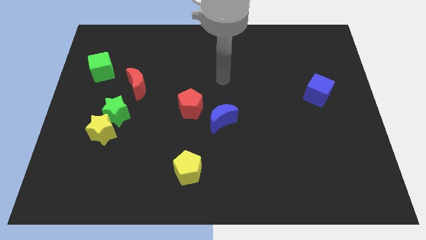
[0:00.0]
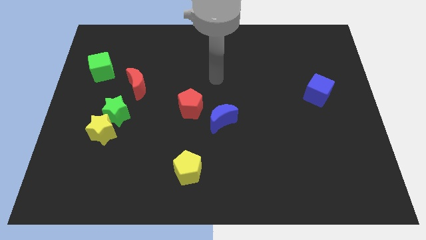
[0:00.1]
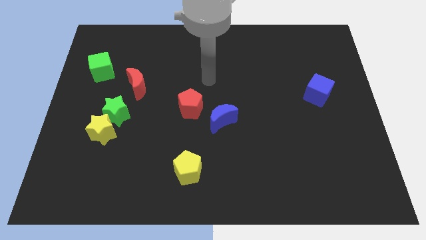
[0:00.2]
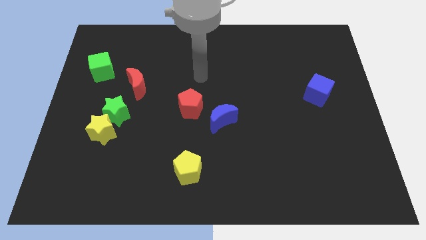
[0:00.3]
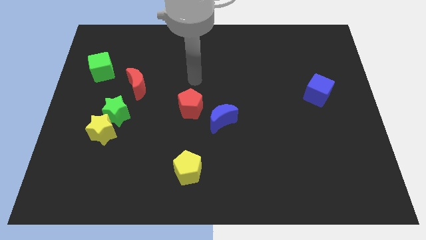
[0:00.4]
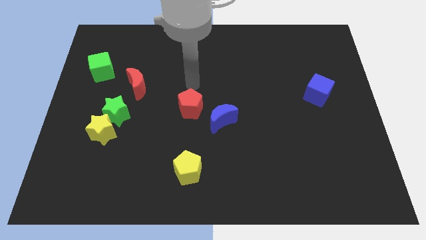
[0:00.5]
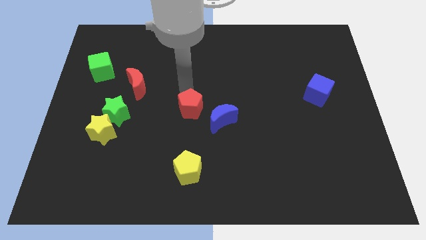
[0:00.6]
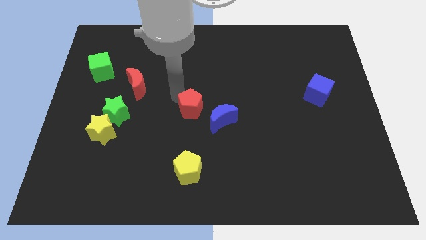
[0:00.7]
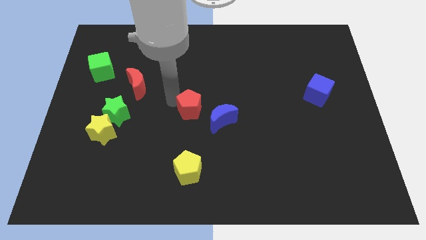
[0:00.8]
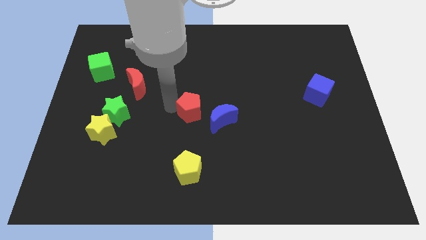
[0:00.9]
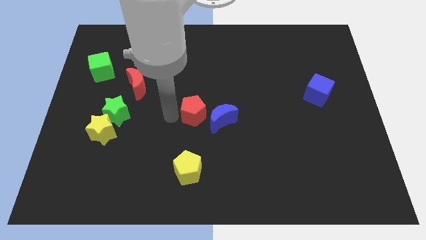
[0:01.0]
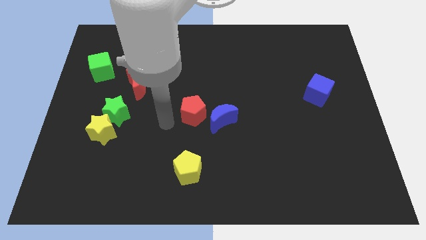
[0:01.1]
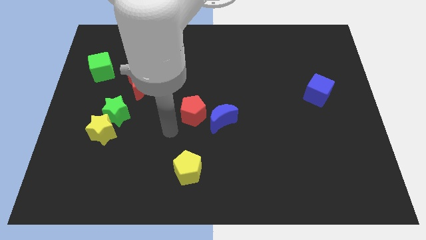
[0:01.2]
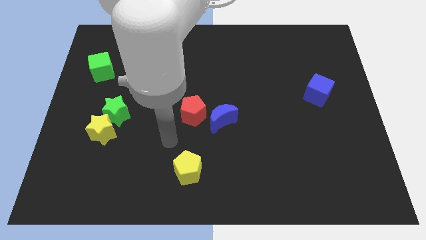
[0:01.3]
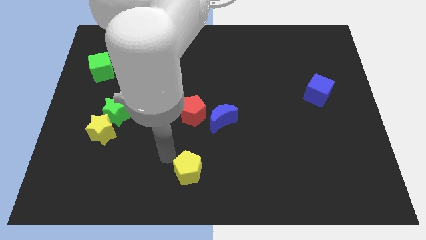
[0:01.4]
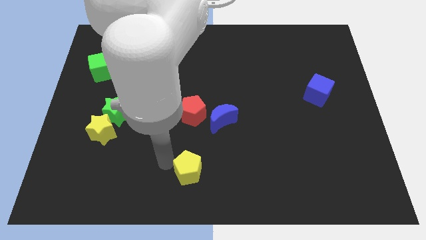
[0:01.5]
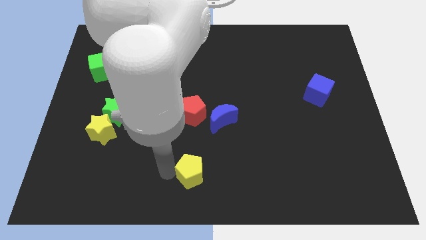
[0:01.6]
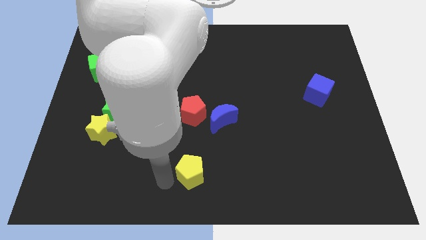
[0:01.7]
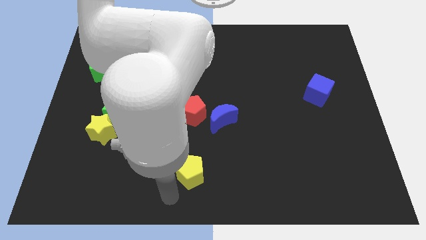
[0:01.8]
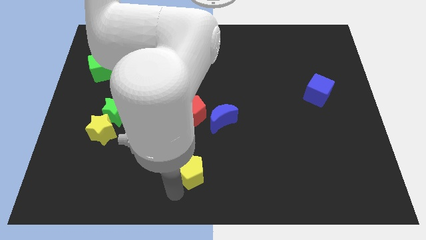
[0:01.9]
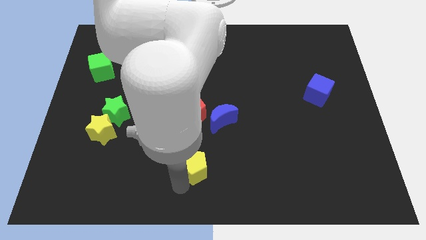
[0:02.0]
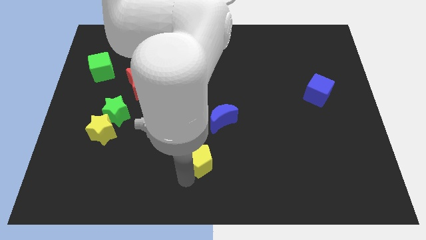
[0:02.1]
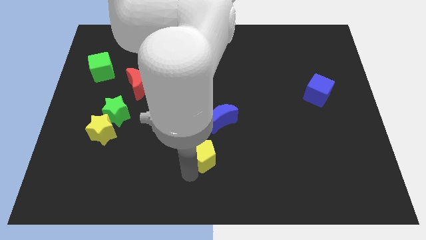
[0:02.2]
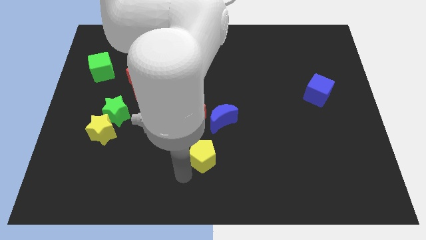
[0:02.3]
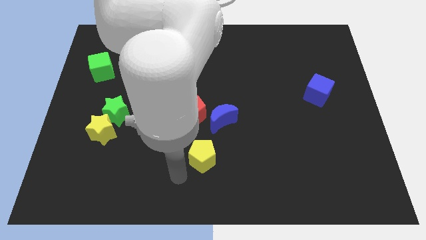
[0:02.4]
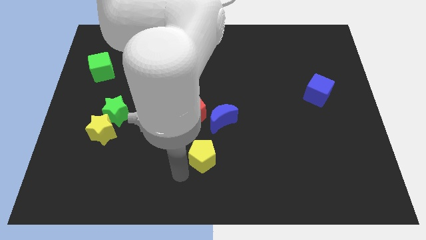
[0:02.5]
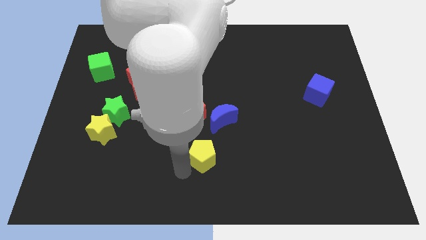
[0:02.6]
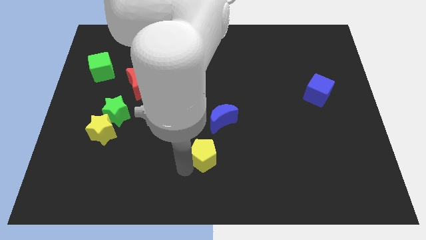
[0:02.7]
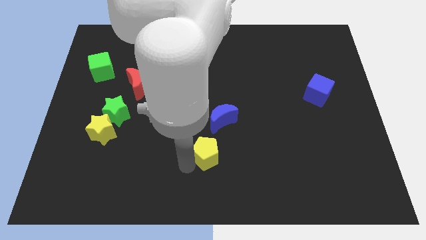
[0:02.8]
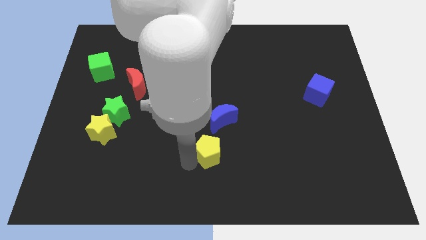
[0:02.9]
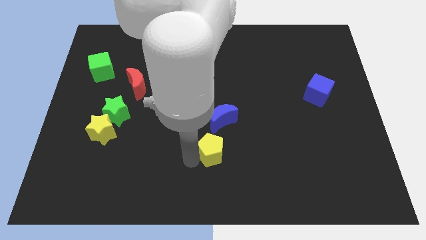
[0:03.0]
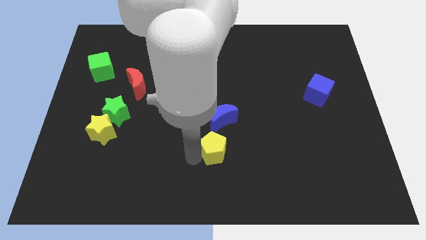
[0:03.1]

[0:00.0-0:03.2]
slightly move the yellow pentagon upwards and right diagonally

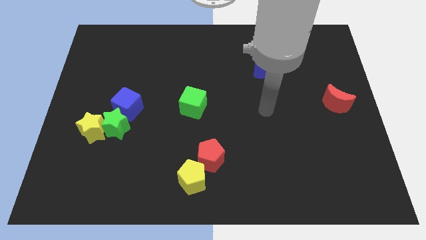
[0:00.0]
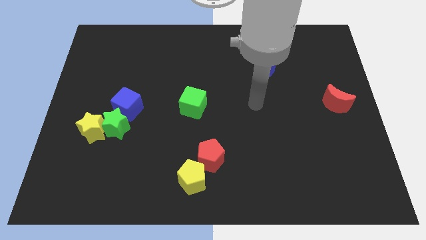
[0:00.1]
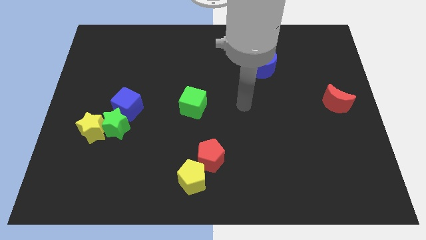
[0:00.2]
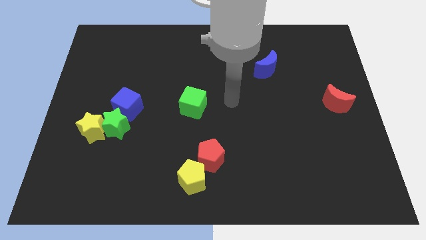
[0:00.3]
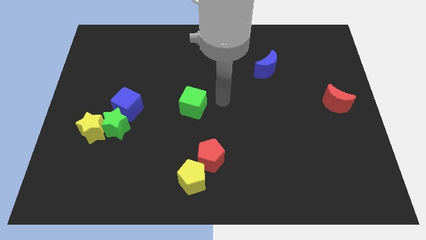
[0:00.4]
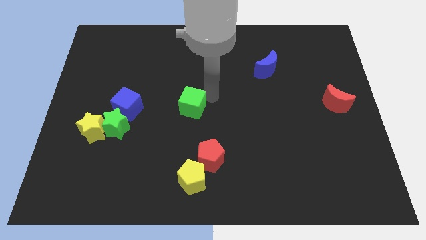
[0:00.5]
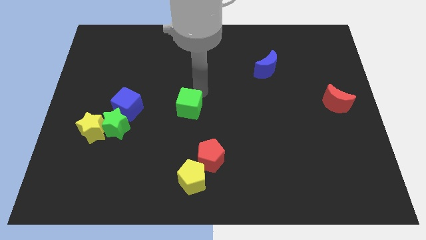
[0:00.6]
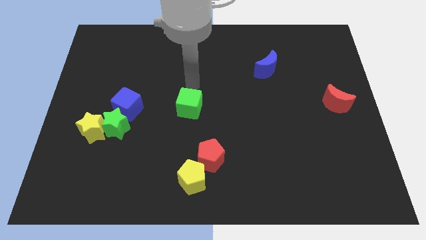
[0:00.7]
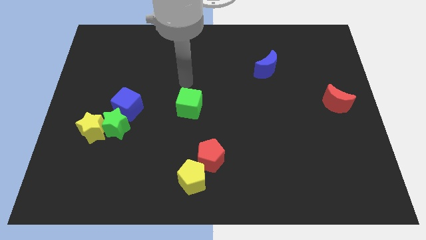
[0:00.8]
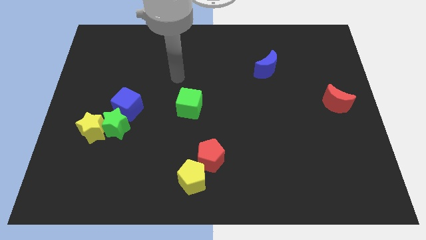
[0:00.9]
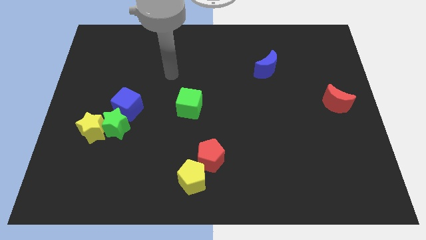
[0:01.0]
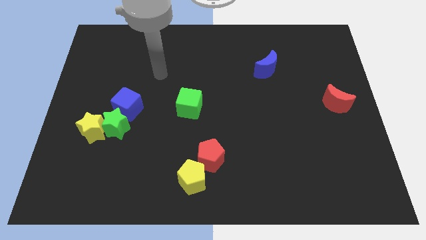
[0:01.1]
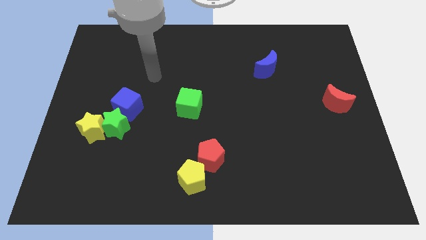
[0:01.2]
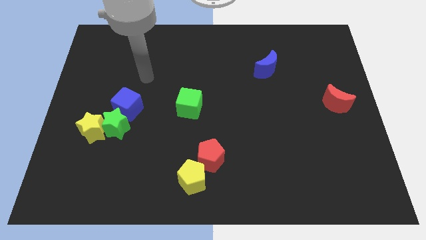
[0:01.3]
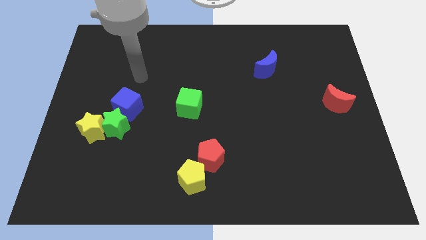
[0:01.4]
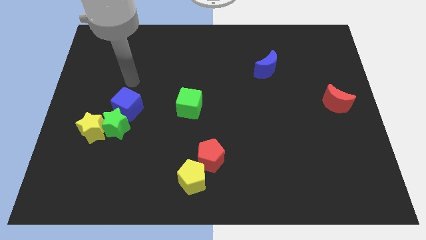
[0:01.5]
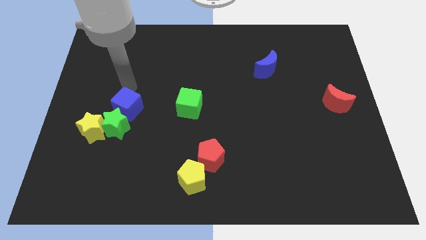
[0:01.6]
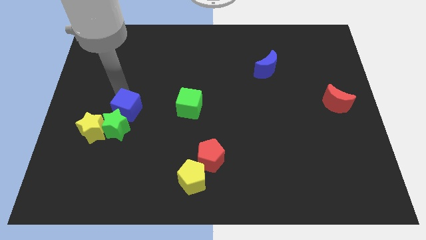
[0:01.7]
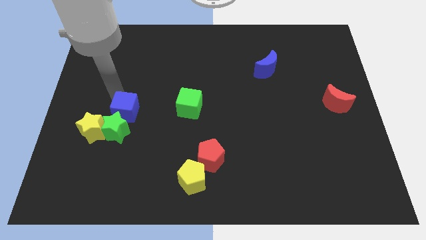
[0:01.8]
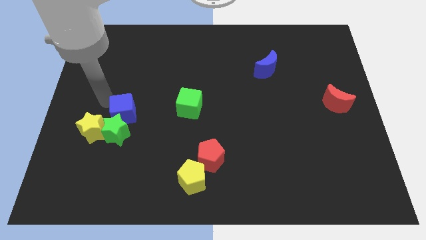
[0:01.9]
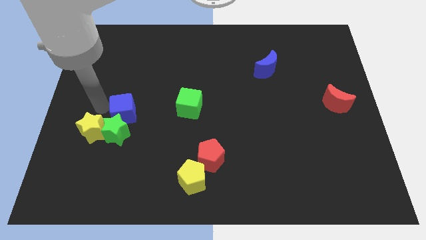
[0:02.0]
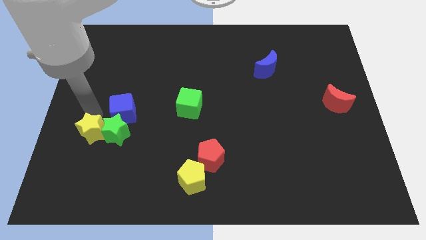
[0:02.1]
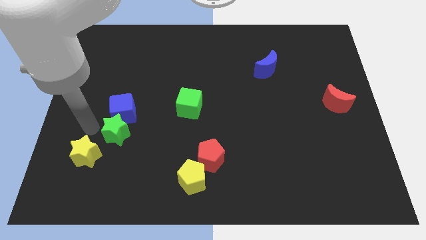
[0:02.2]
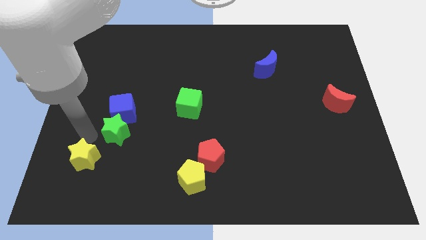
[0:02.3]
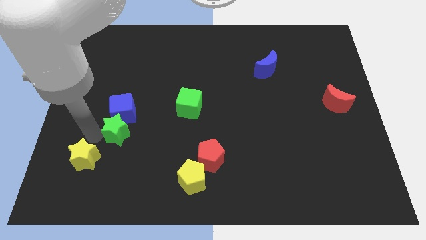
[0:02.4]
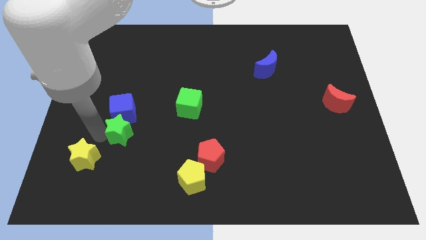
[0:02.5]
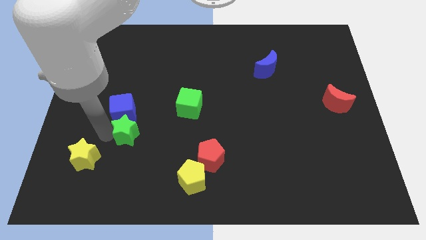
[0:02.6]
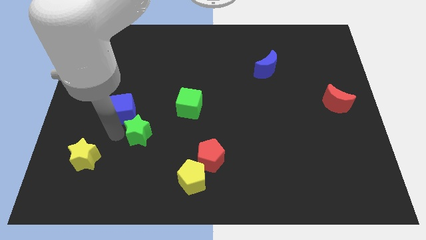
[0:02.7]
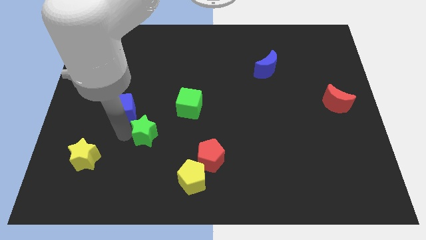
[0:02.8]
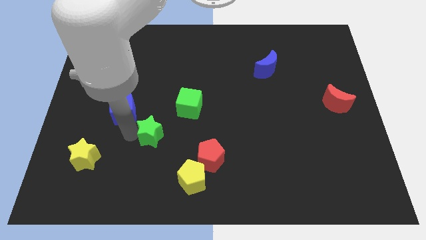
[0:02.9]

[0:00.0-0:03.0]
slide the green star a little bit right

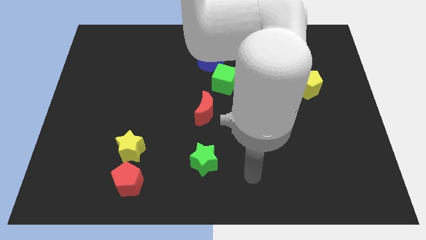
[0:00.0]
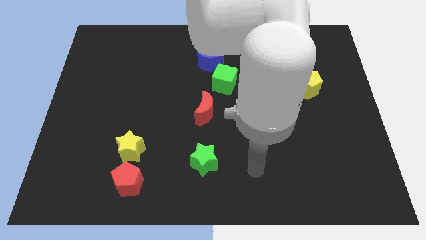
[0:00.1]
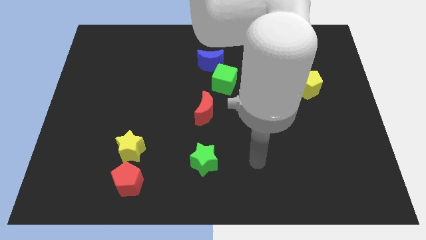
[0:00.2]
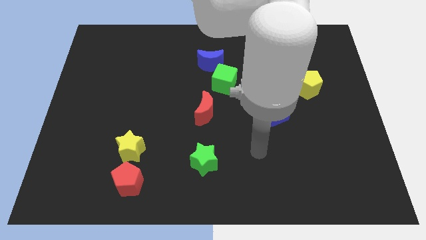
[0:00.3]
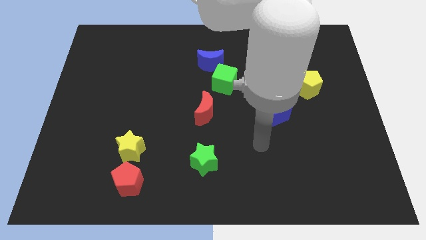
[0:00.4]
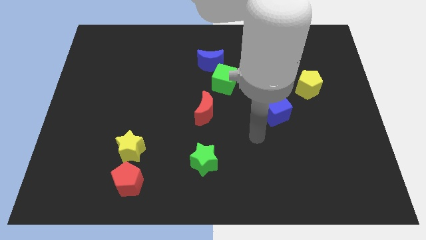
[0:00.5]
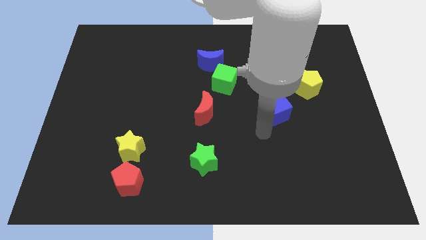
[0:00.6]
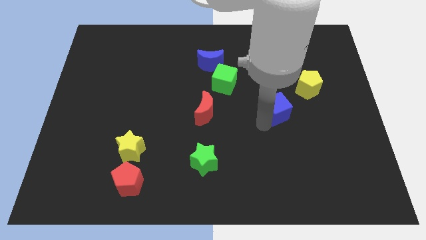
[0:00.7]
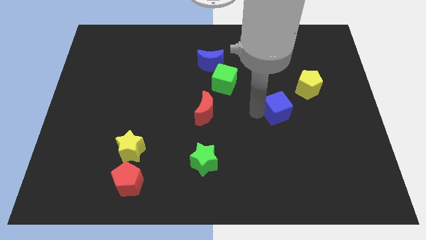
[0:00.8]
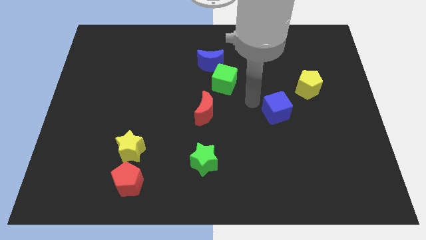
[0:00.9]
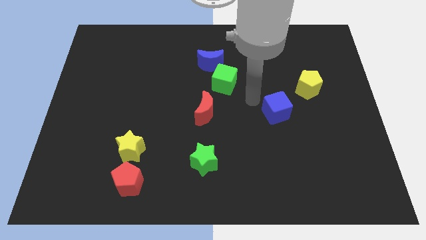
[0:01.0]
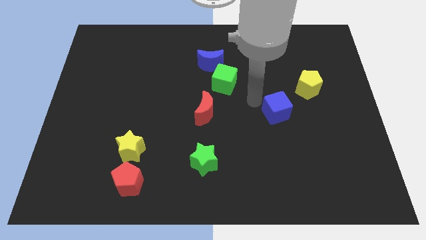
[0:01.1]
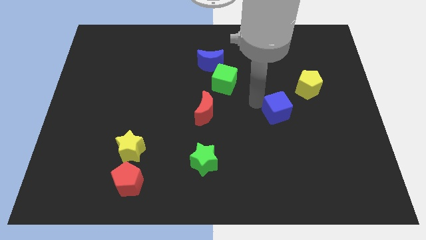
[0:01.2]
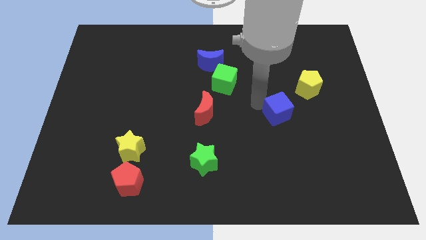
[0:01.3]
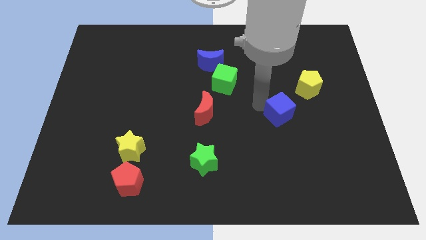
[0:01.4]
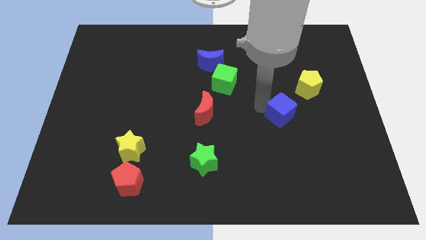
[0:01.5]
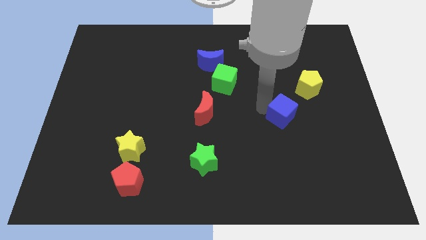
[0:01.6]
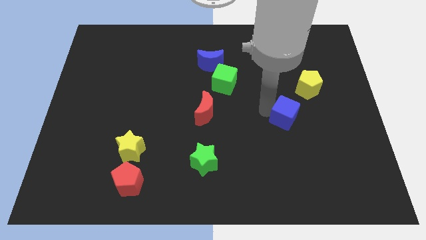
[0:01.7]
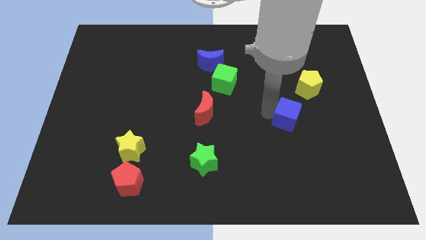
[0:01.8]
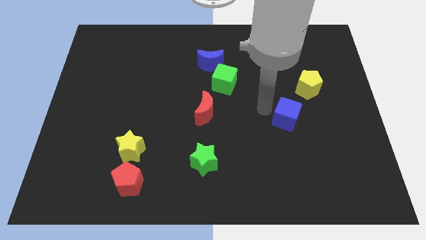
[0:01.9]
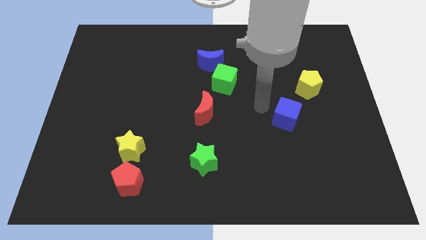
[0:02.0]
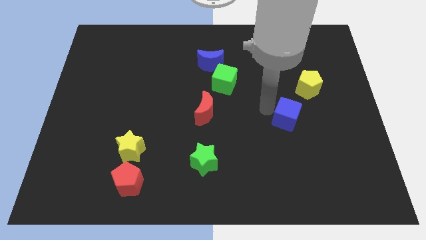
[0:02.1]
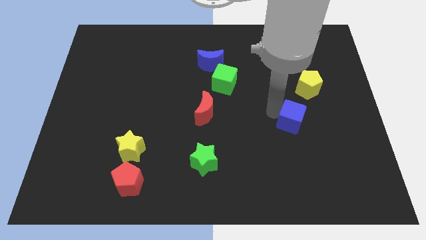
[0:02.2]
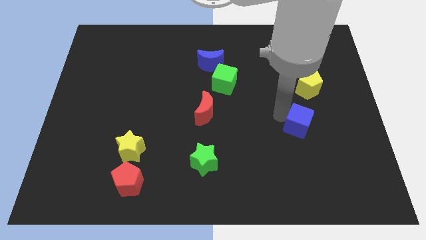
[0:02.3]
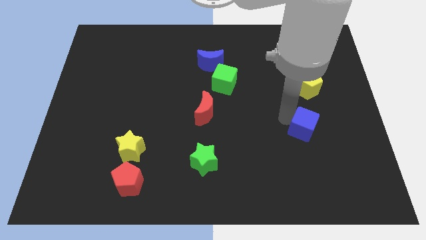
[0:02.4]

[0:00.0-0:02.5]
push the blue cube a bit downwards and then to the right
